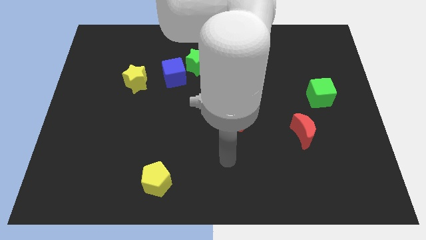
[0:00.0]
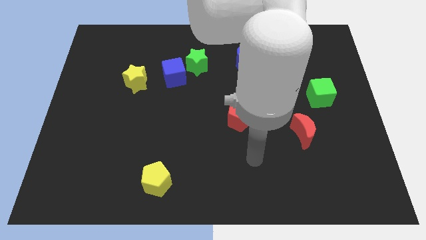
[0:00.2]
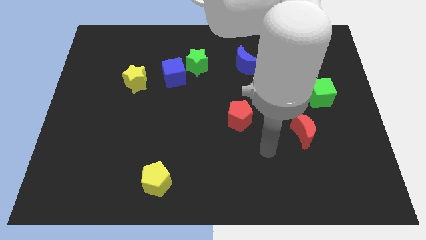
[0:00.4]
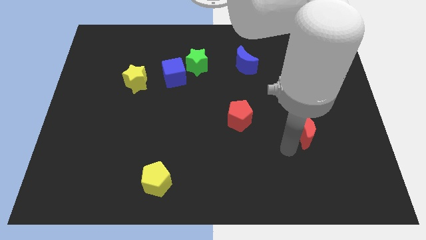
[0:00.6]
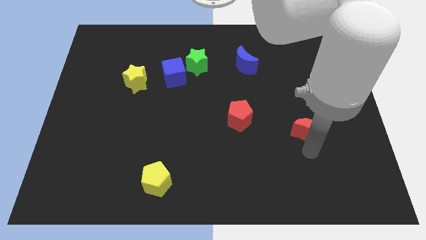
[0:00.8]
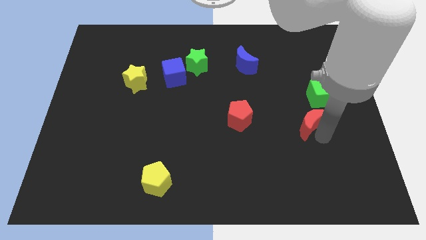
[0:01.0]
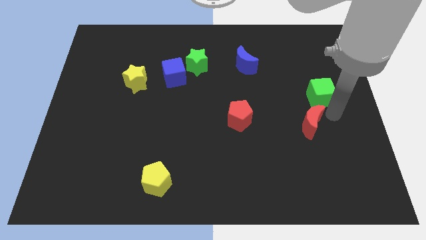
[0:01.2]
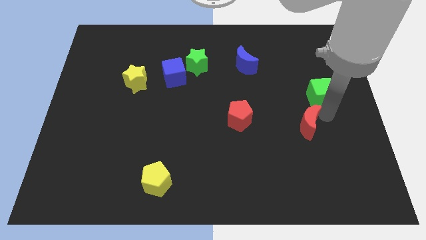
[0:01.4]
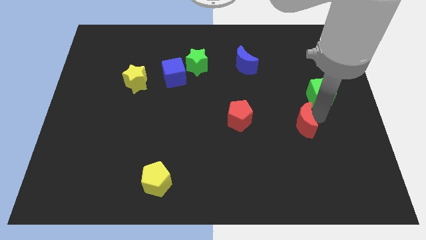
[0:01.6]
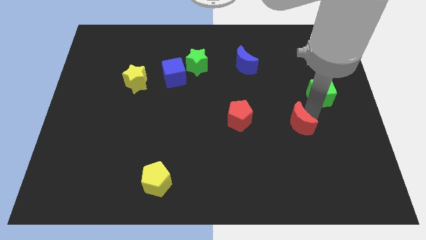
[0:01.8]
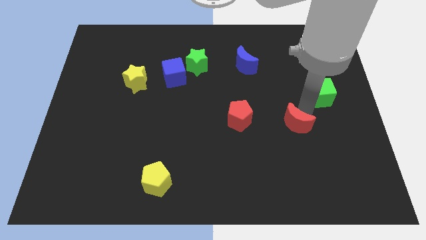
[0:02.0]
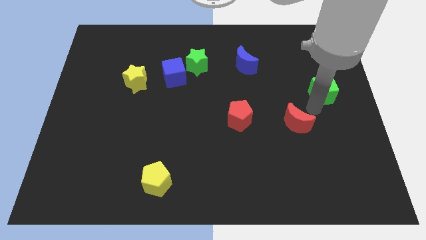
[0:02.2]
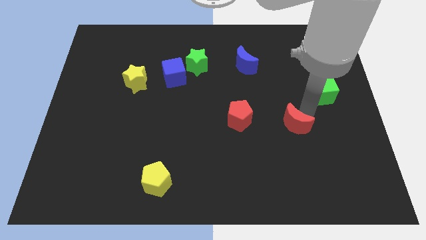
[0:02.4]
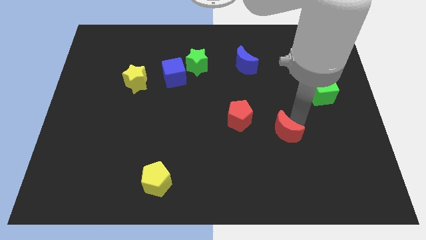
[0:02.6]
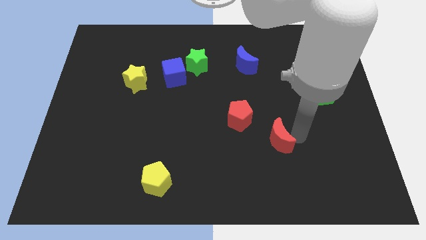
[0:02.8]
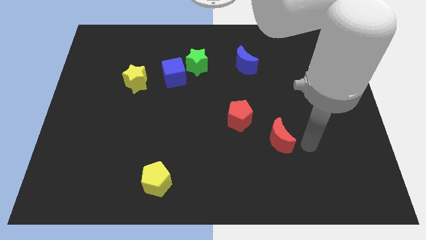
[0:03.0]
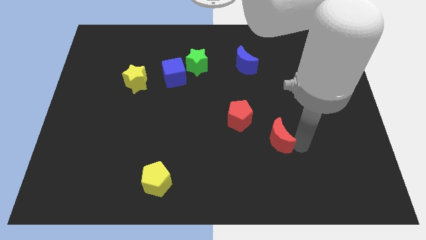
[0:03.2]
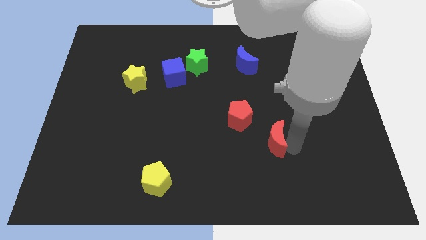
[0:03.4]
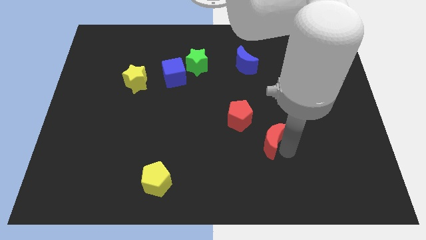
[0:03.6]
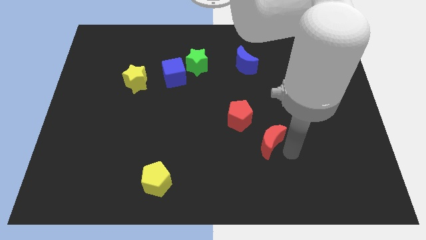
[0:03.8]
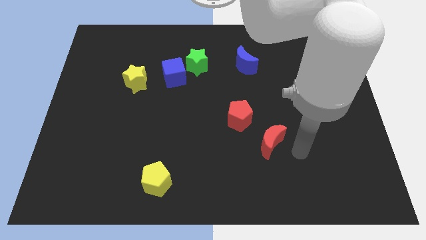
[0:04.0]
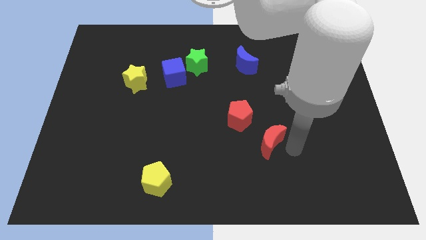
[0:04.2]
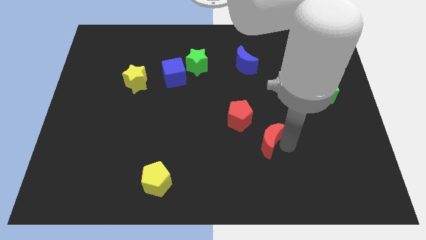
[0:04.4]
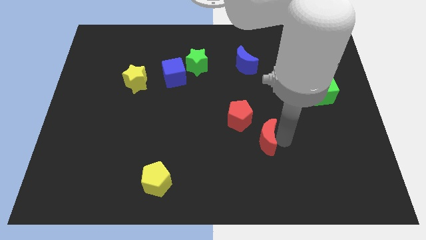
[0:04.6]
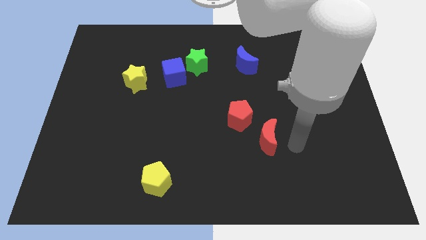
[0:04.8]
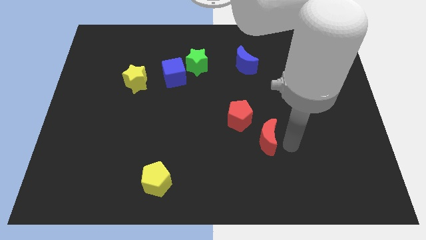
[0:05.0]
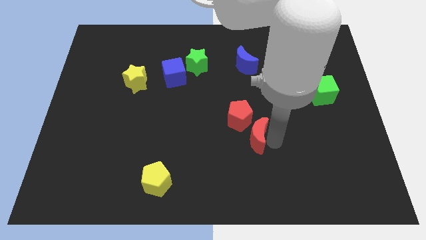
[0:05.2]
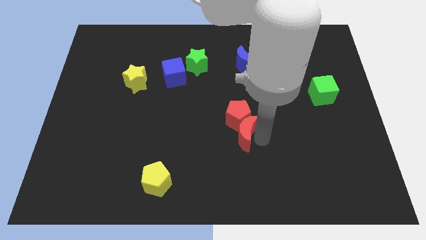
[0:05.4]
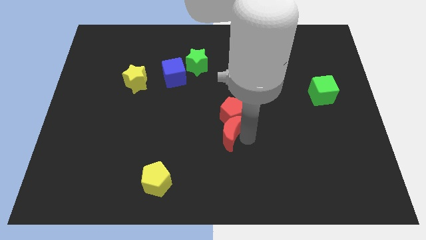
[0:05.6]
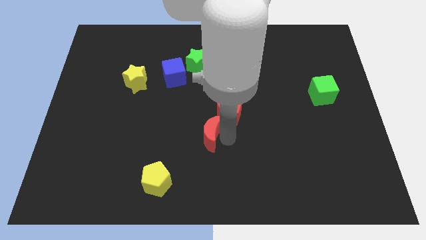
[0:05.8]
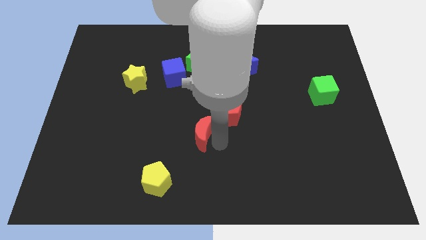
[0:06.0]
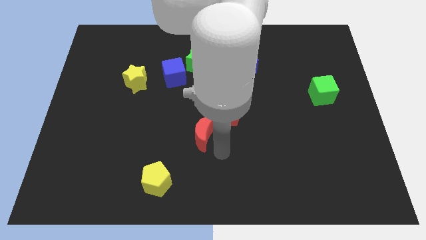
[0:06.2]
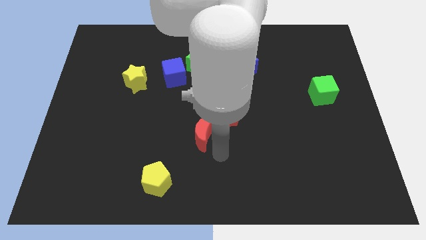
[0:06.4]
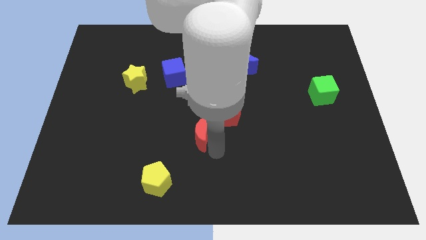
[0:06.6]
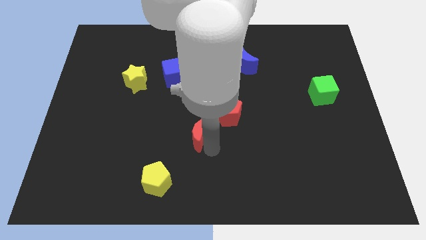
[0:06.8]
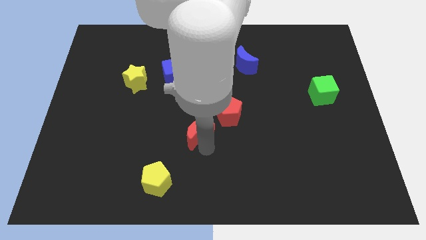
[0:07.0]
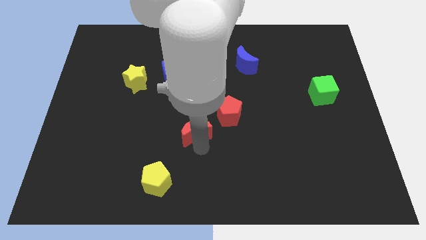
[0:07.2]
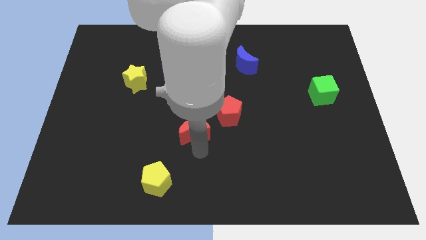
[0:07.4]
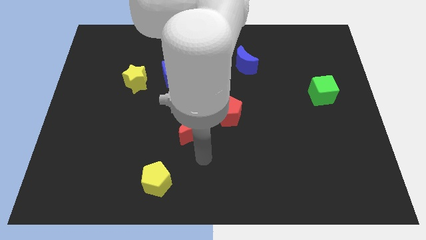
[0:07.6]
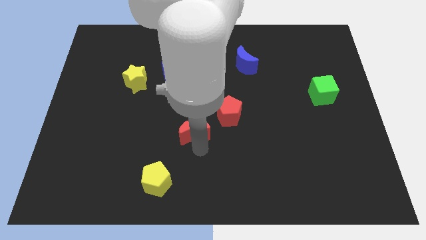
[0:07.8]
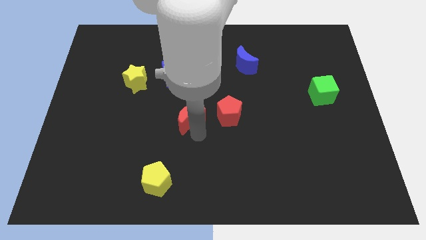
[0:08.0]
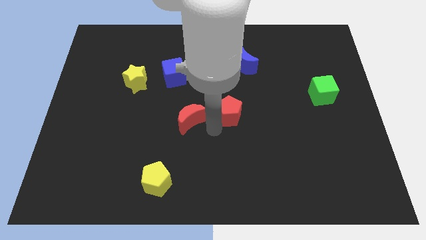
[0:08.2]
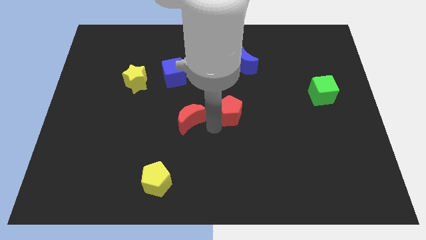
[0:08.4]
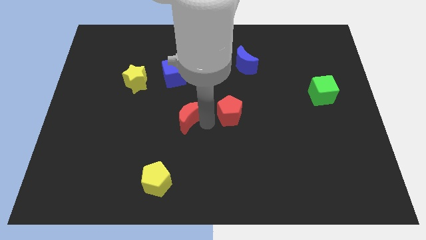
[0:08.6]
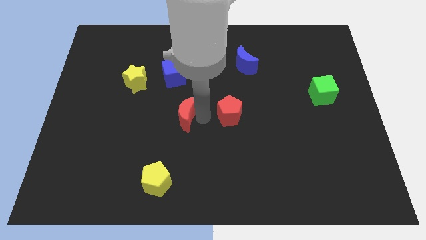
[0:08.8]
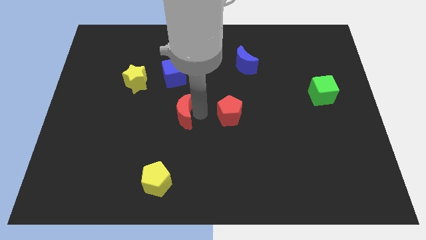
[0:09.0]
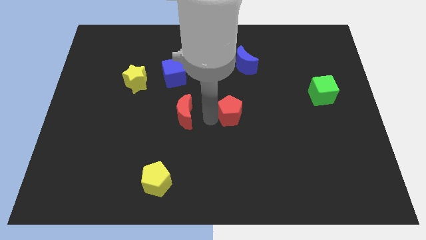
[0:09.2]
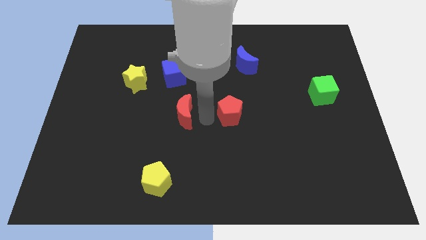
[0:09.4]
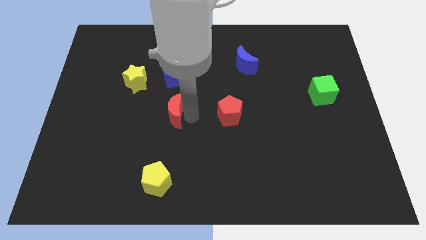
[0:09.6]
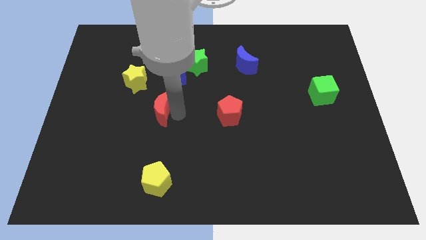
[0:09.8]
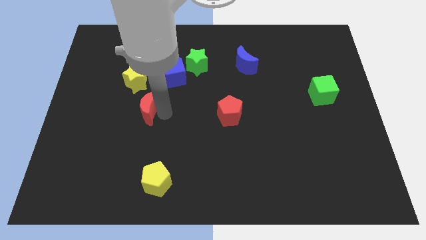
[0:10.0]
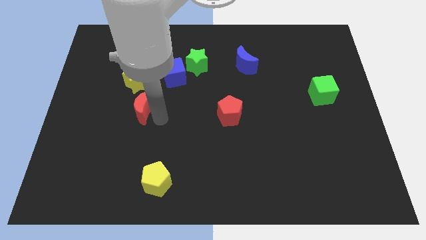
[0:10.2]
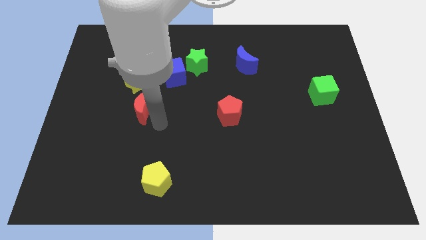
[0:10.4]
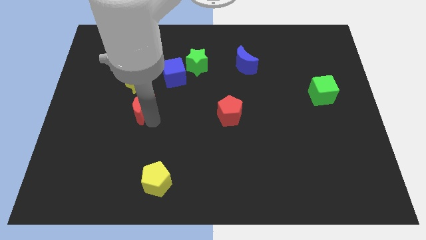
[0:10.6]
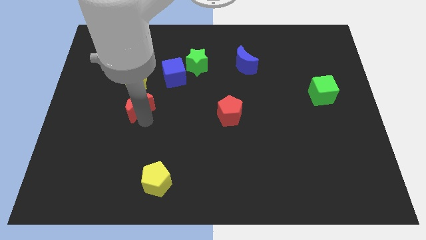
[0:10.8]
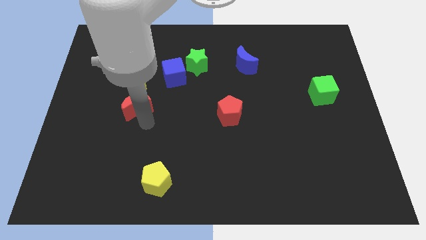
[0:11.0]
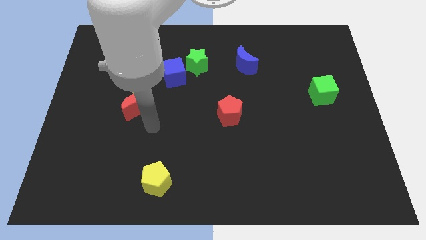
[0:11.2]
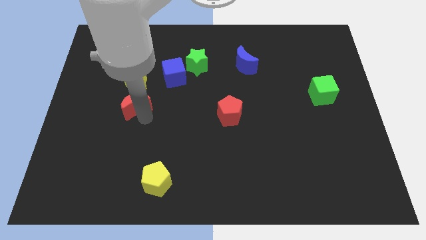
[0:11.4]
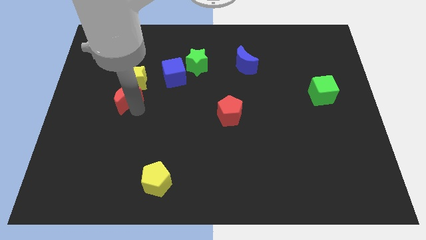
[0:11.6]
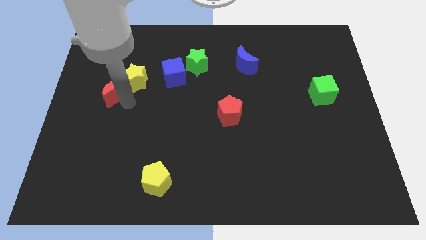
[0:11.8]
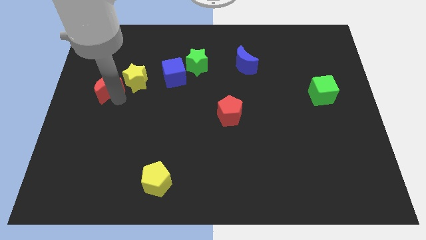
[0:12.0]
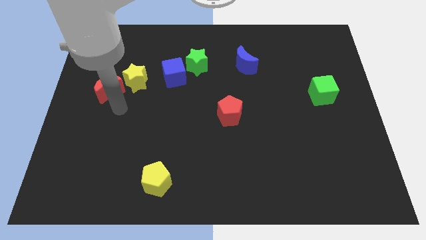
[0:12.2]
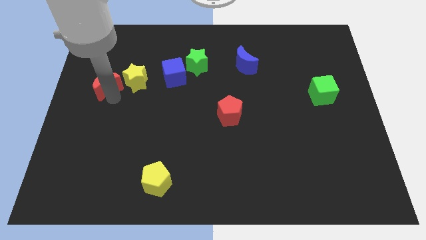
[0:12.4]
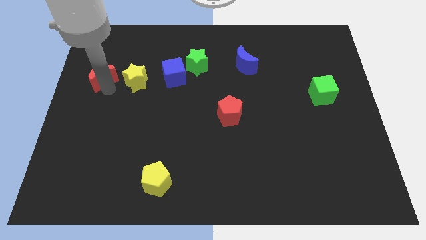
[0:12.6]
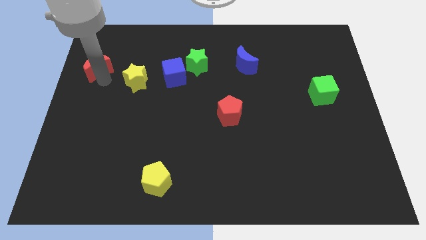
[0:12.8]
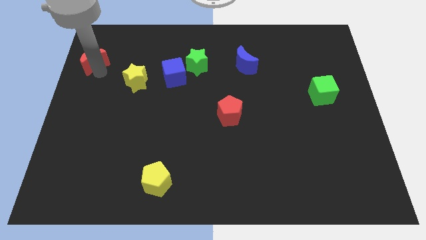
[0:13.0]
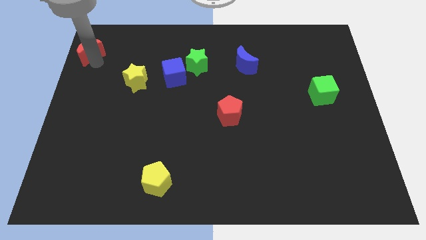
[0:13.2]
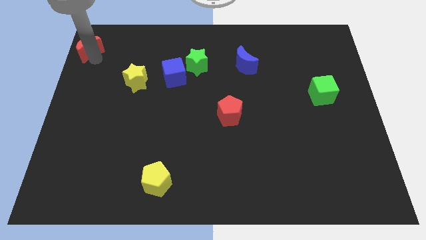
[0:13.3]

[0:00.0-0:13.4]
push the red moon to the upper left corner

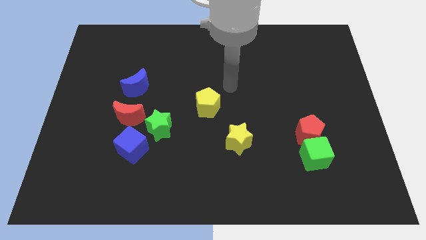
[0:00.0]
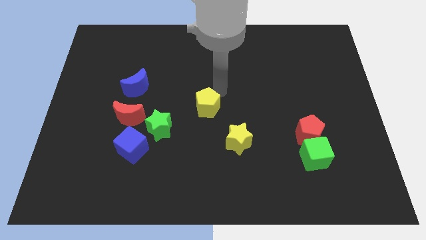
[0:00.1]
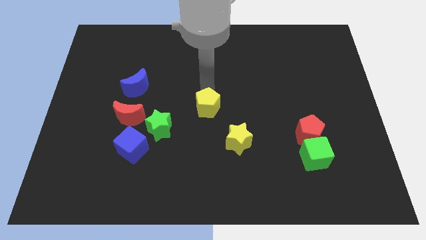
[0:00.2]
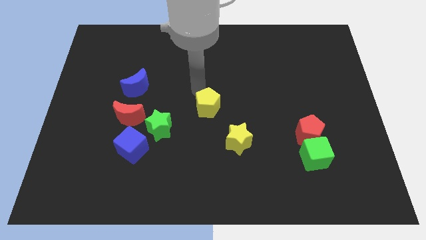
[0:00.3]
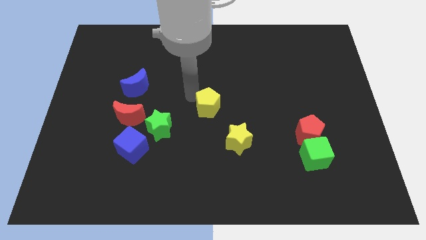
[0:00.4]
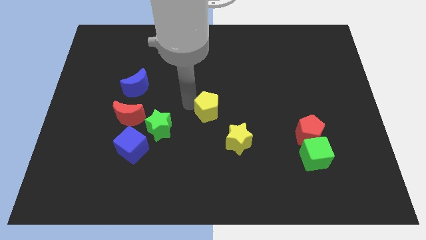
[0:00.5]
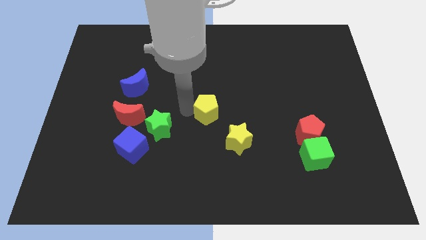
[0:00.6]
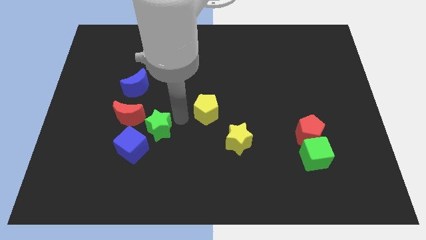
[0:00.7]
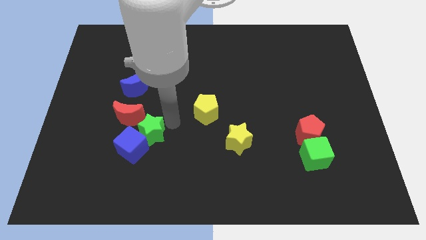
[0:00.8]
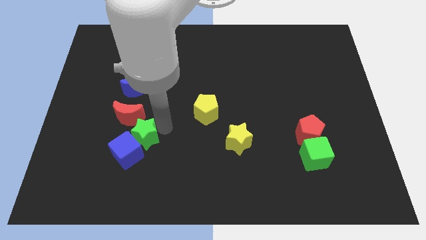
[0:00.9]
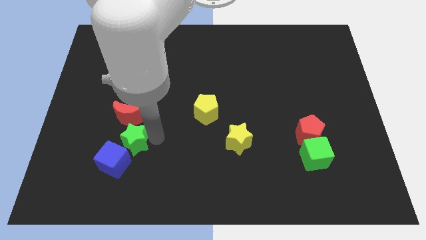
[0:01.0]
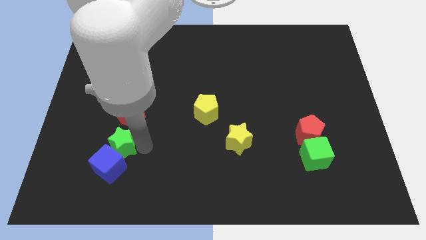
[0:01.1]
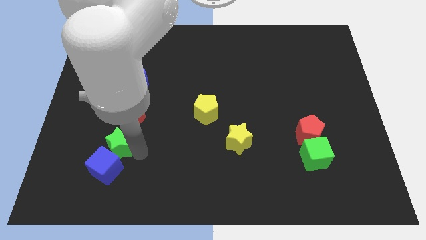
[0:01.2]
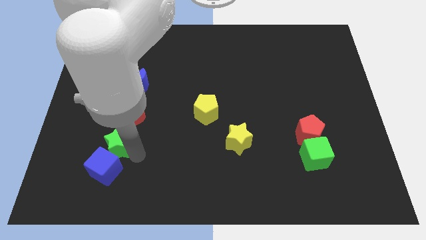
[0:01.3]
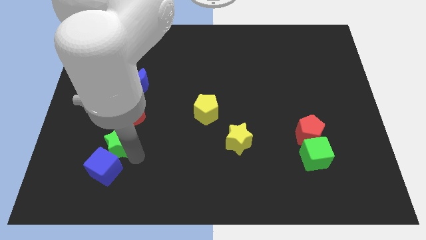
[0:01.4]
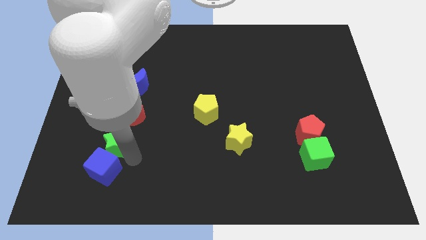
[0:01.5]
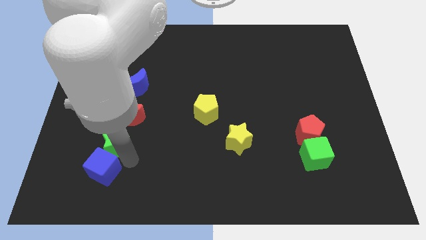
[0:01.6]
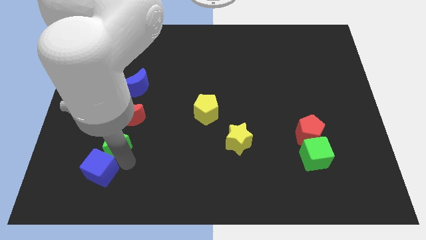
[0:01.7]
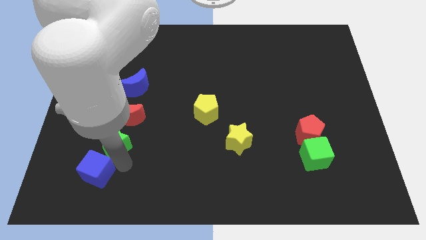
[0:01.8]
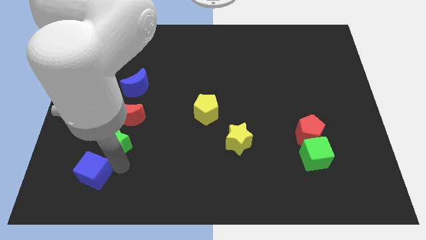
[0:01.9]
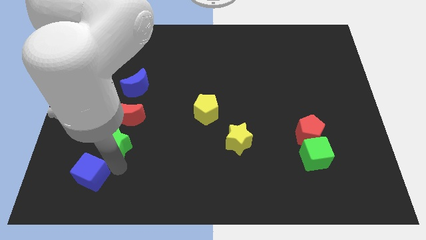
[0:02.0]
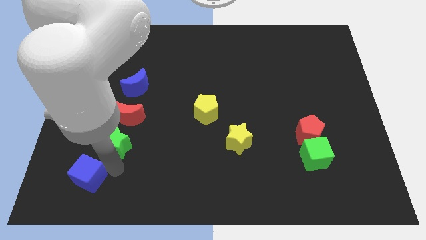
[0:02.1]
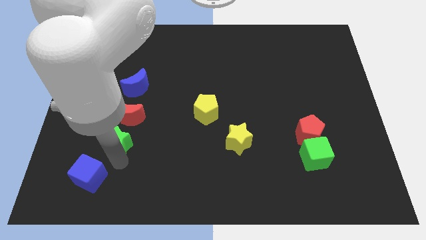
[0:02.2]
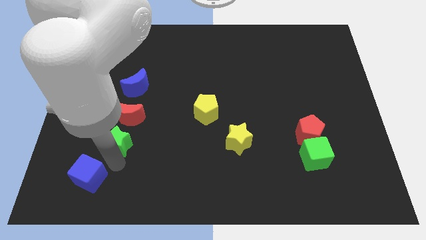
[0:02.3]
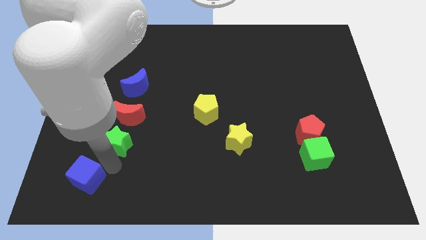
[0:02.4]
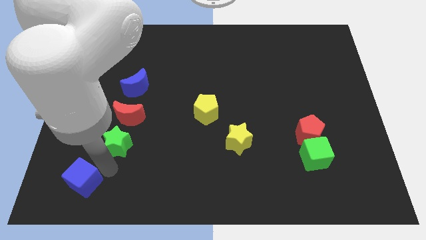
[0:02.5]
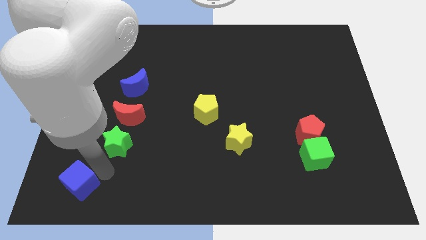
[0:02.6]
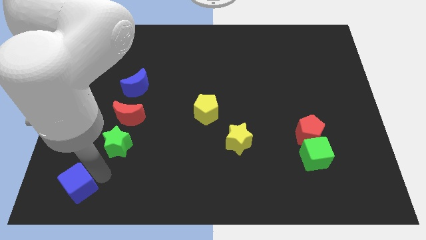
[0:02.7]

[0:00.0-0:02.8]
put the blue cube to the bottom left
